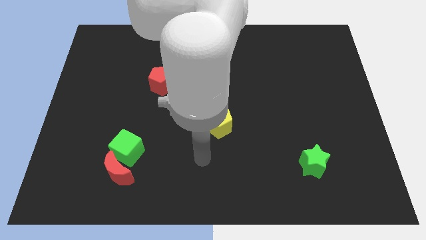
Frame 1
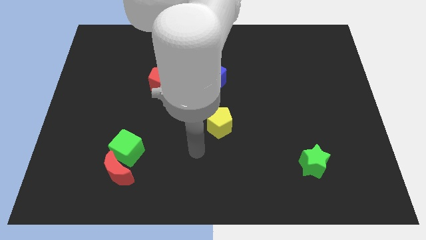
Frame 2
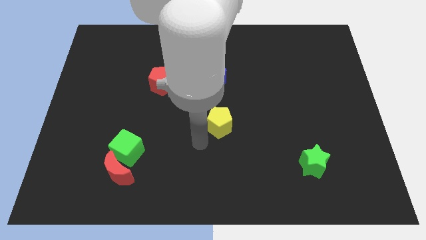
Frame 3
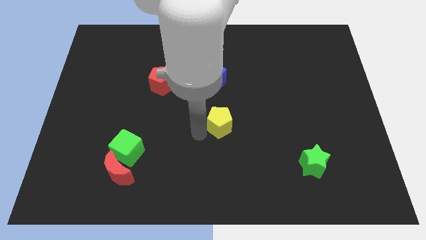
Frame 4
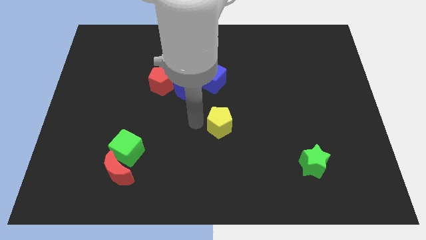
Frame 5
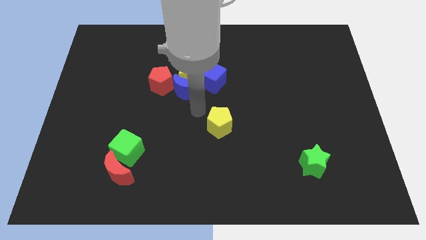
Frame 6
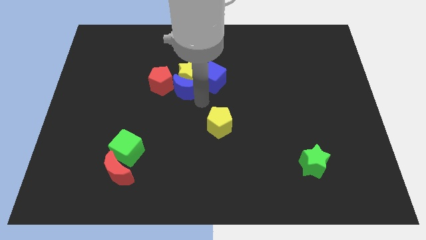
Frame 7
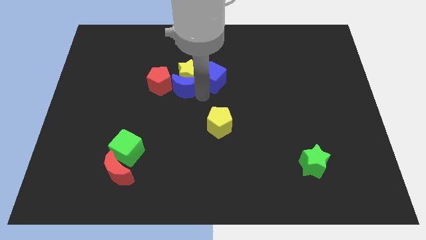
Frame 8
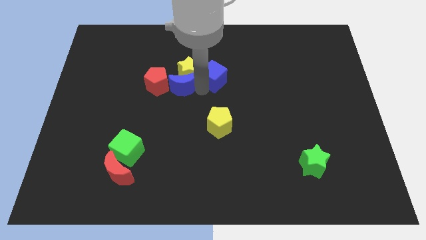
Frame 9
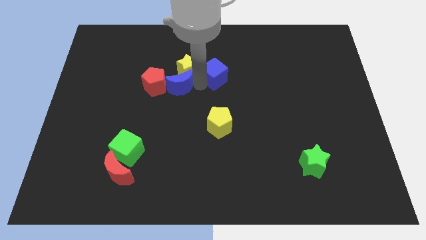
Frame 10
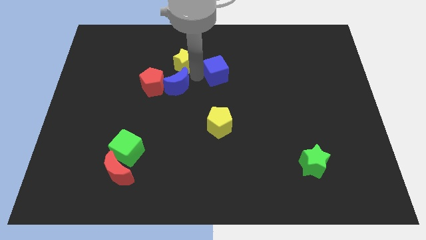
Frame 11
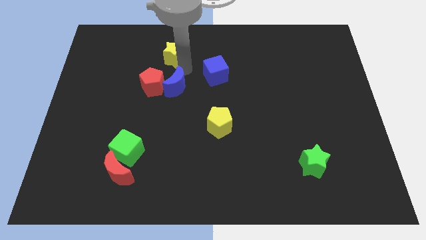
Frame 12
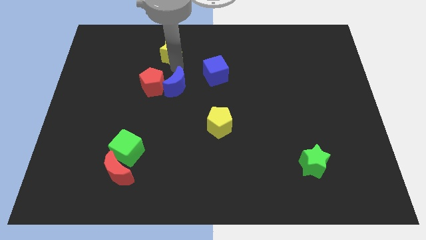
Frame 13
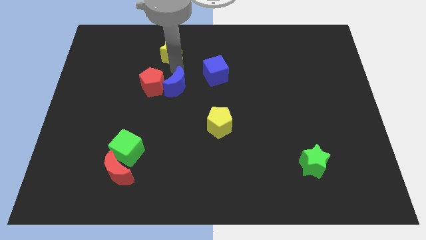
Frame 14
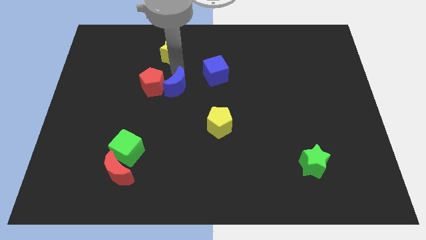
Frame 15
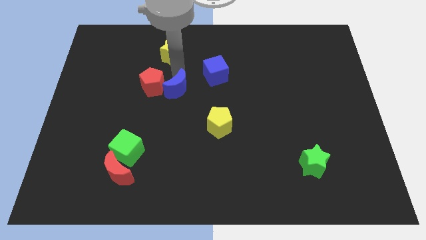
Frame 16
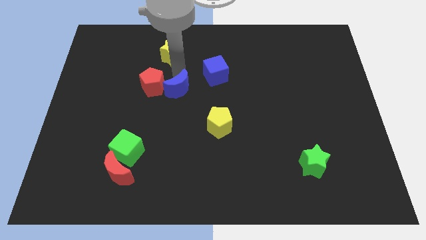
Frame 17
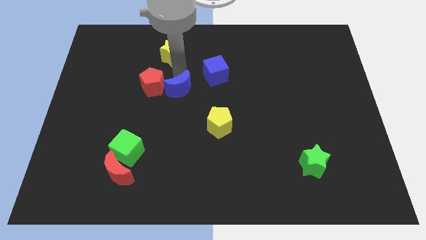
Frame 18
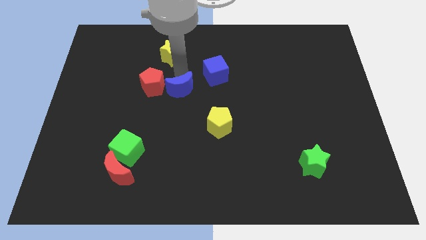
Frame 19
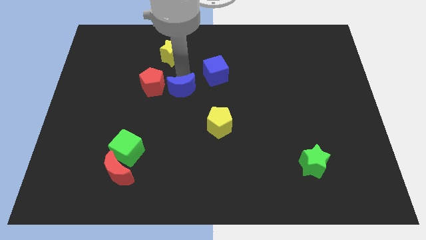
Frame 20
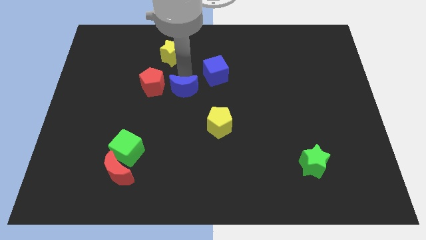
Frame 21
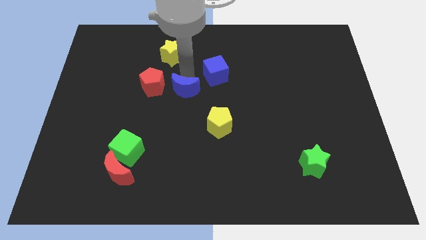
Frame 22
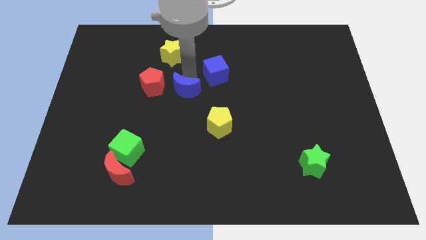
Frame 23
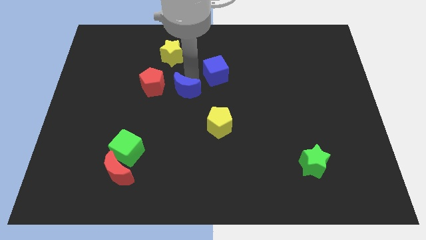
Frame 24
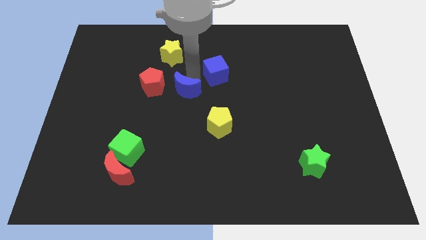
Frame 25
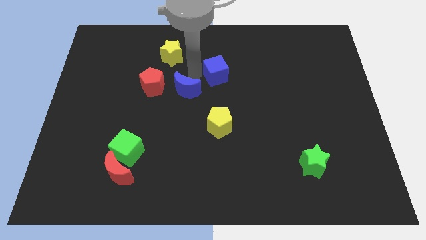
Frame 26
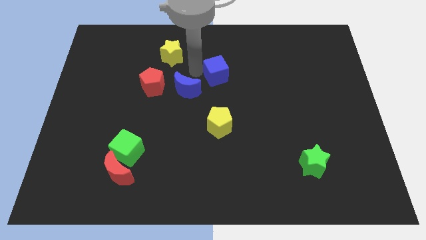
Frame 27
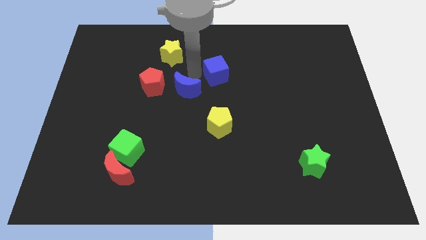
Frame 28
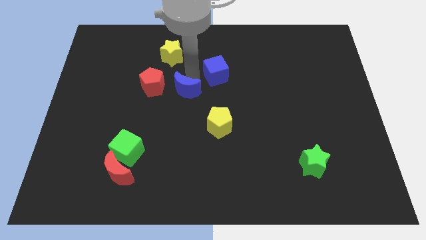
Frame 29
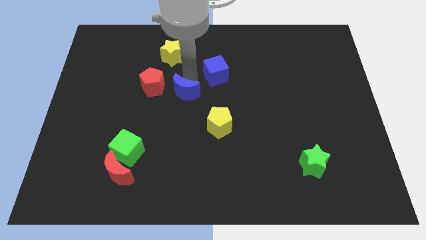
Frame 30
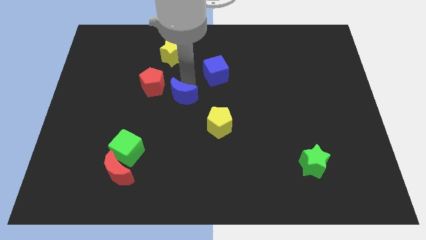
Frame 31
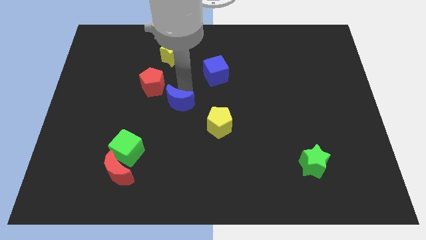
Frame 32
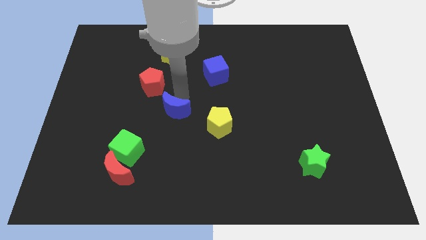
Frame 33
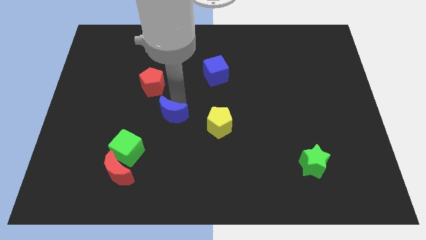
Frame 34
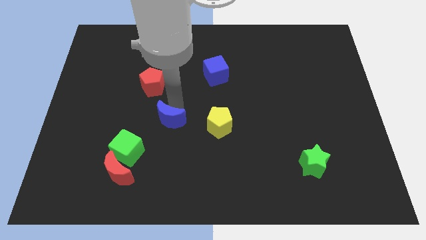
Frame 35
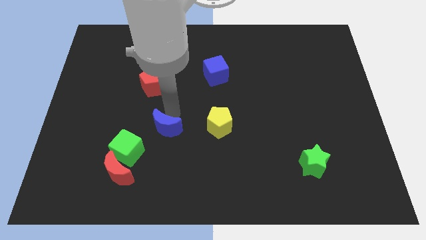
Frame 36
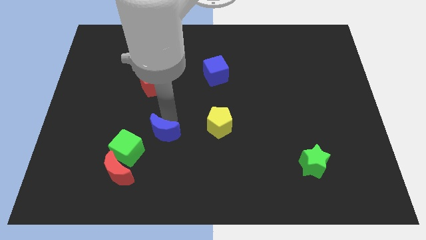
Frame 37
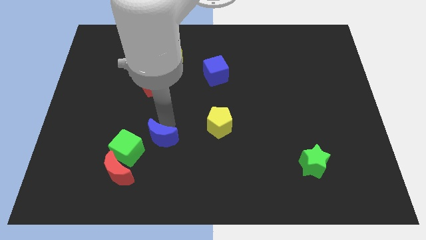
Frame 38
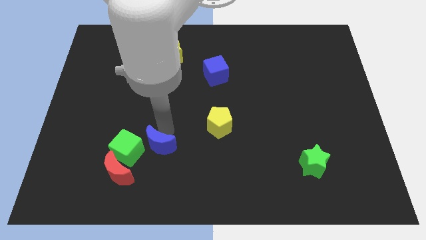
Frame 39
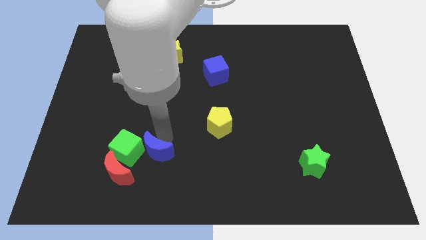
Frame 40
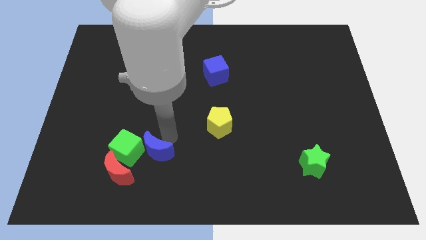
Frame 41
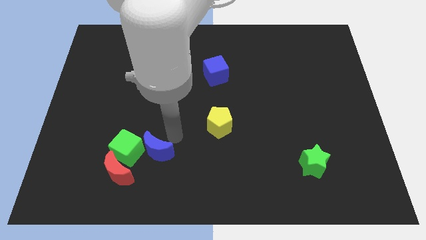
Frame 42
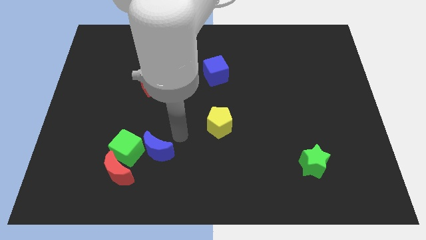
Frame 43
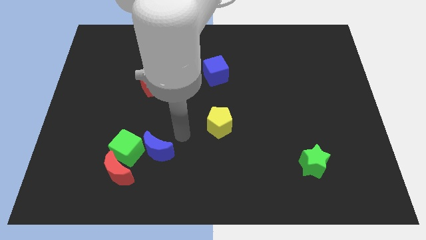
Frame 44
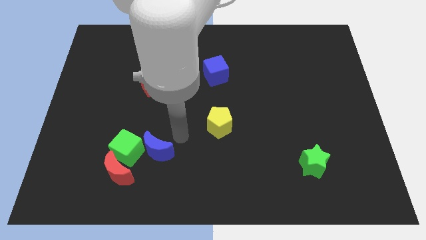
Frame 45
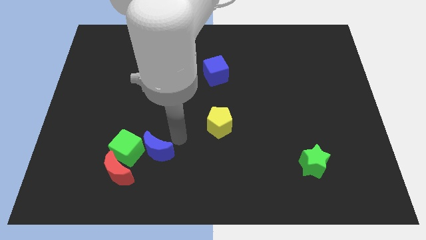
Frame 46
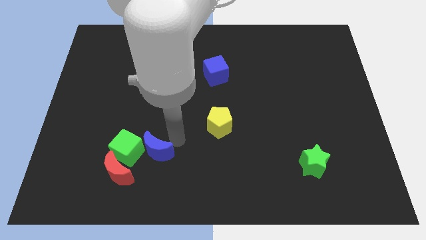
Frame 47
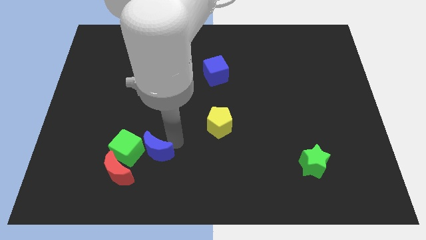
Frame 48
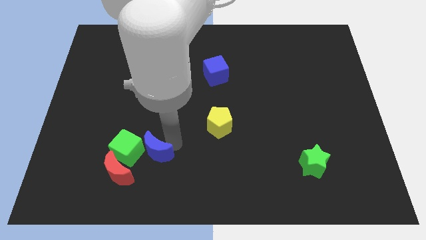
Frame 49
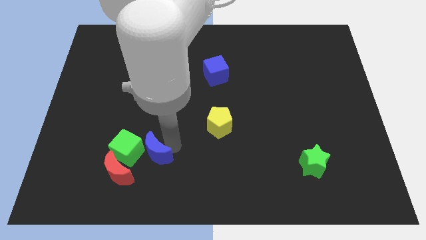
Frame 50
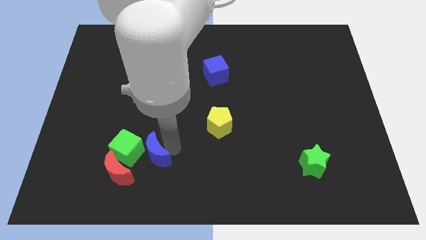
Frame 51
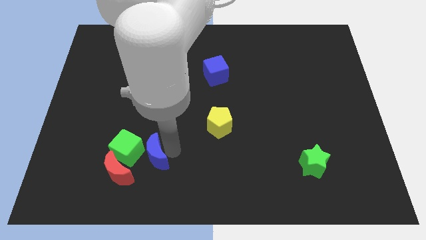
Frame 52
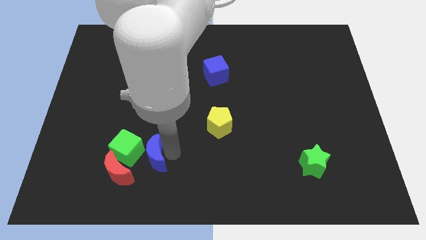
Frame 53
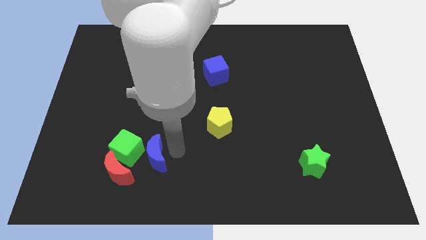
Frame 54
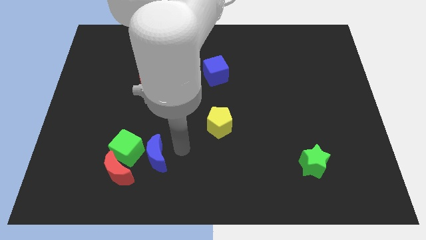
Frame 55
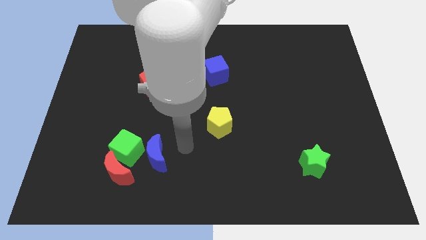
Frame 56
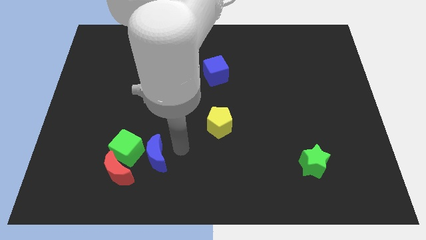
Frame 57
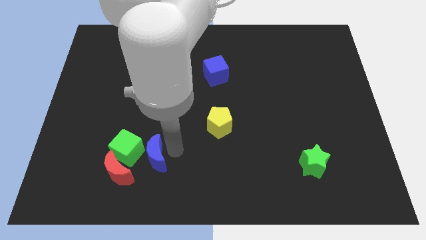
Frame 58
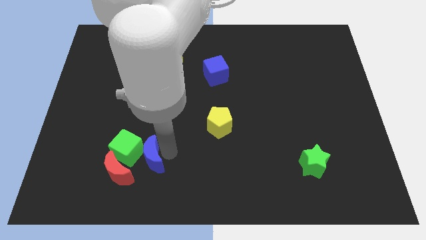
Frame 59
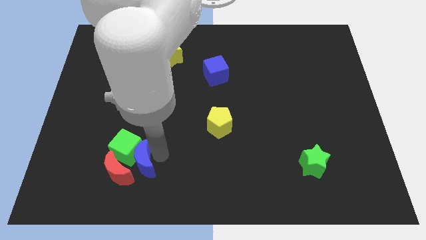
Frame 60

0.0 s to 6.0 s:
slide the blue moon to the red moon
